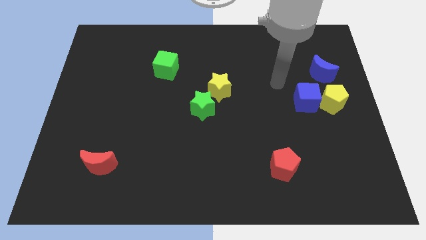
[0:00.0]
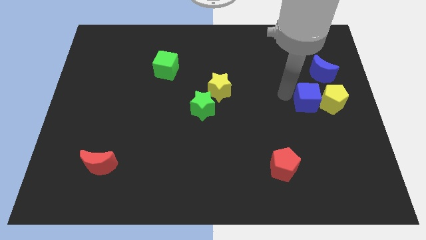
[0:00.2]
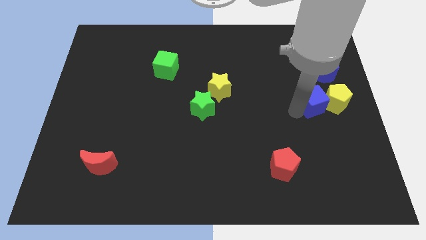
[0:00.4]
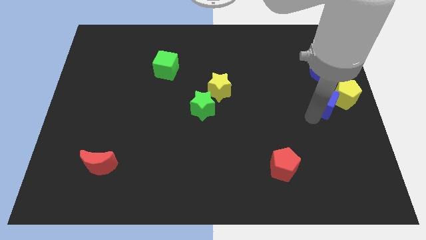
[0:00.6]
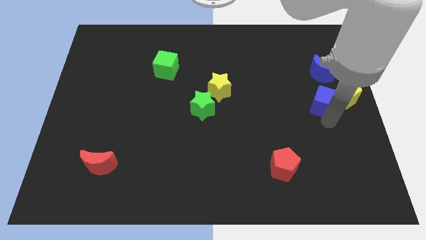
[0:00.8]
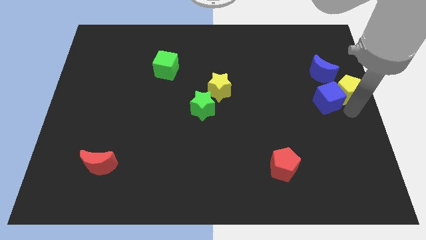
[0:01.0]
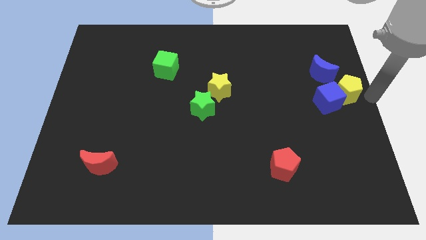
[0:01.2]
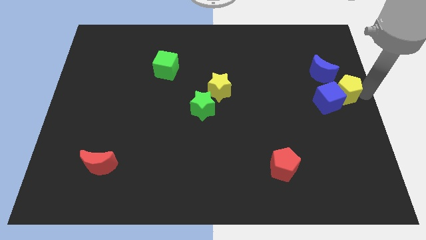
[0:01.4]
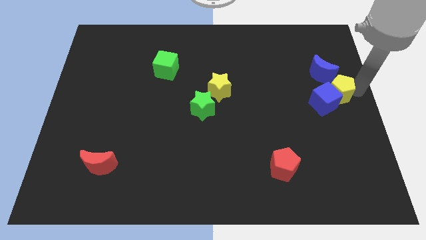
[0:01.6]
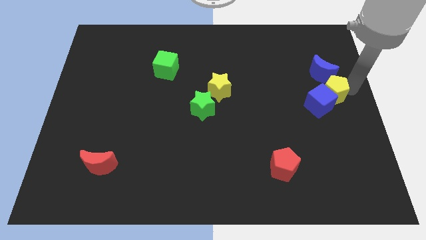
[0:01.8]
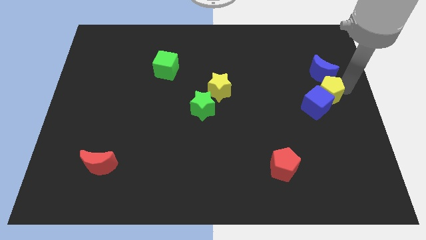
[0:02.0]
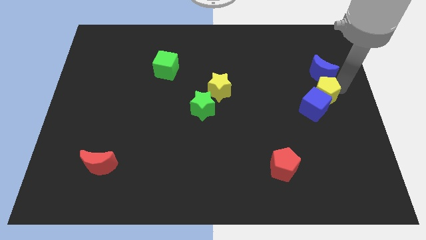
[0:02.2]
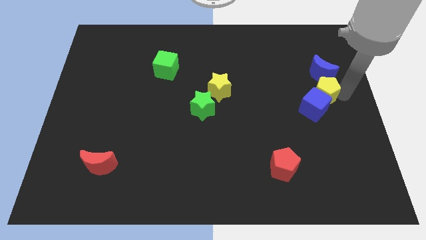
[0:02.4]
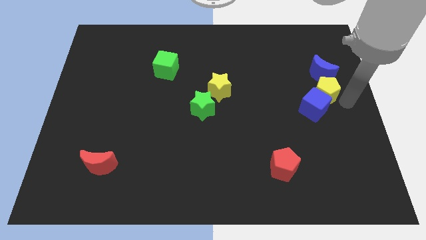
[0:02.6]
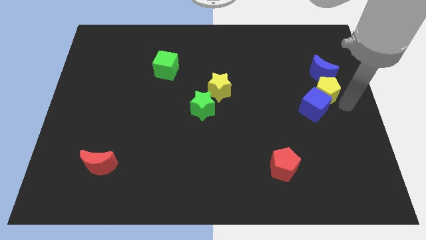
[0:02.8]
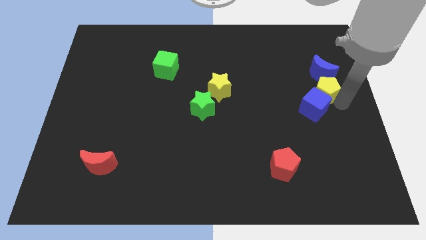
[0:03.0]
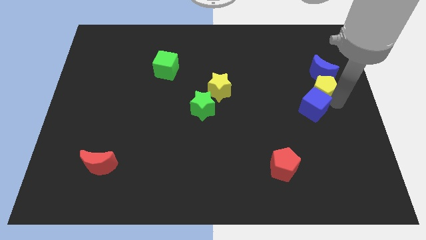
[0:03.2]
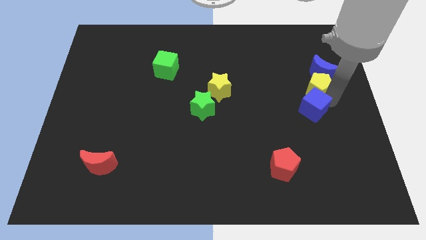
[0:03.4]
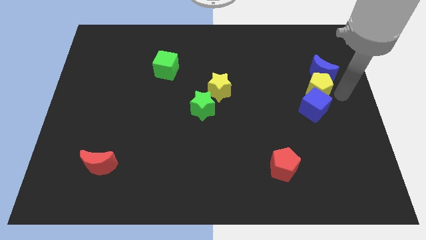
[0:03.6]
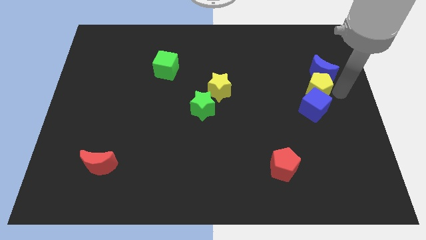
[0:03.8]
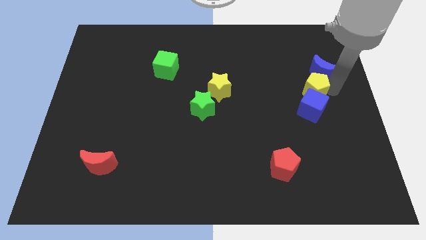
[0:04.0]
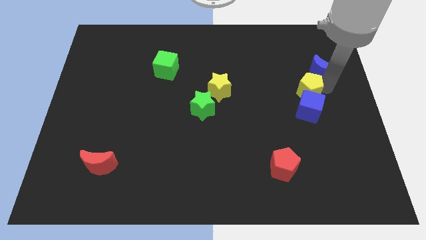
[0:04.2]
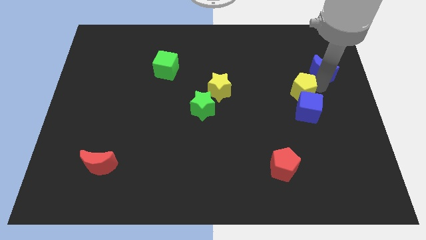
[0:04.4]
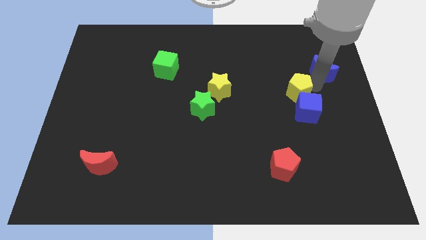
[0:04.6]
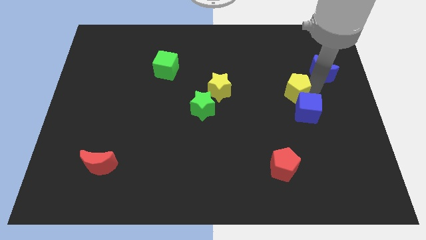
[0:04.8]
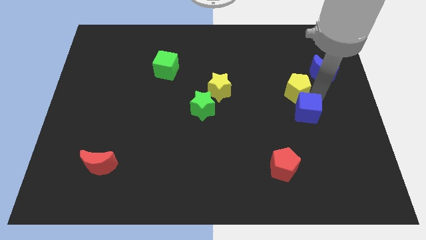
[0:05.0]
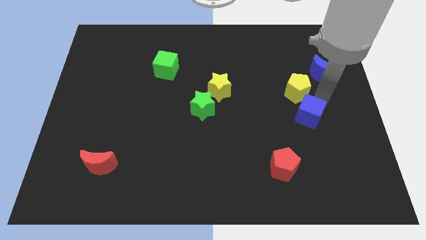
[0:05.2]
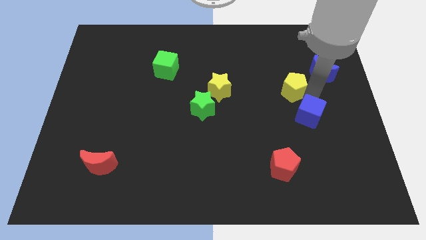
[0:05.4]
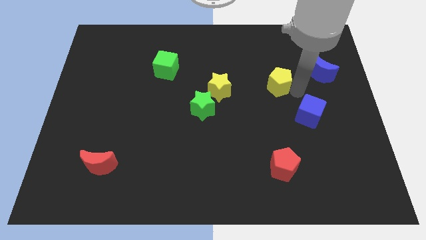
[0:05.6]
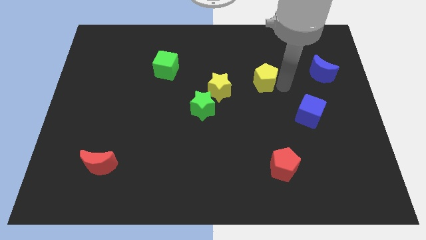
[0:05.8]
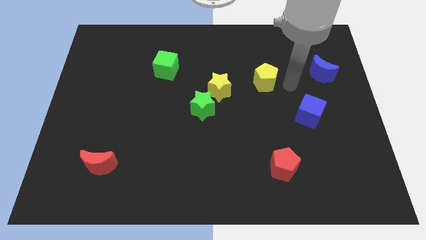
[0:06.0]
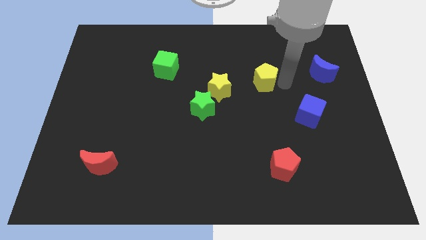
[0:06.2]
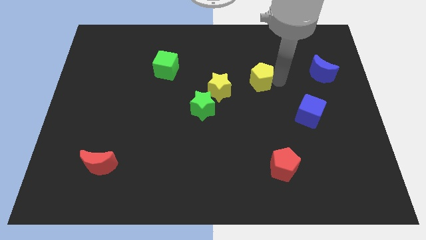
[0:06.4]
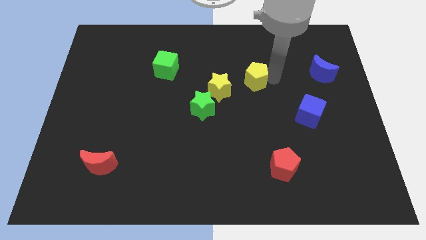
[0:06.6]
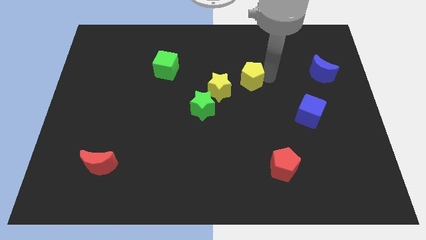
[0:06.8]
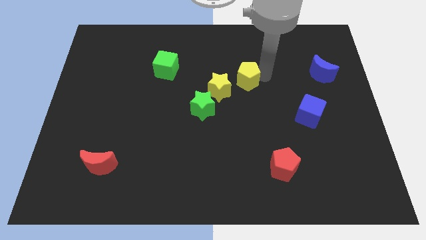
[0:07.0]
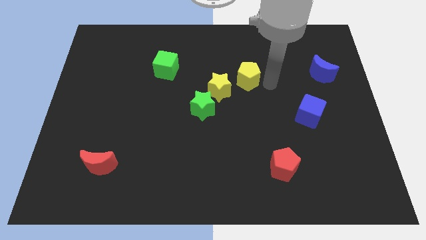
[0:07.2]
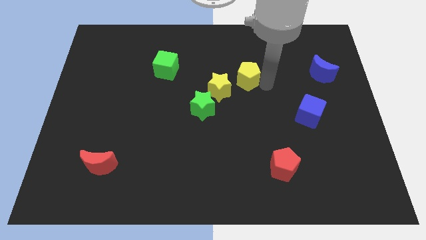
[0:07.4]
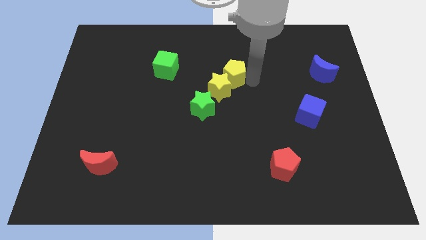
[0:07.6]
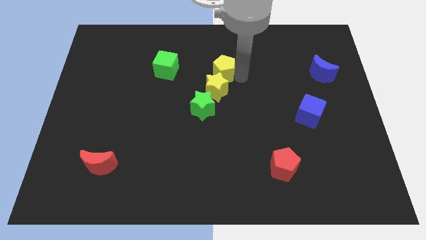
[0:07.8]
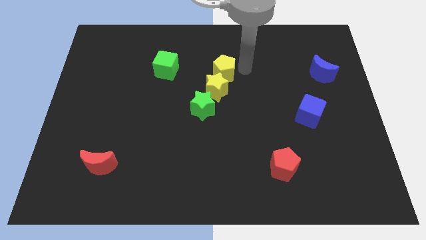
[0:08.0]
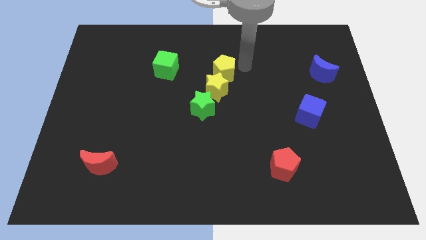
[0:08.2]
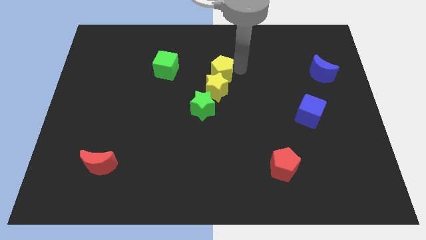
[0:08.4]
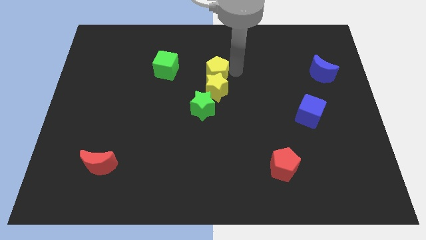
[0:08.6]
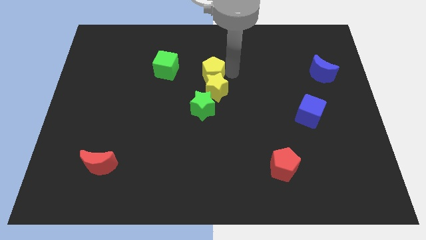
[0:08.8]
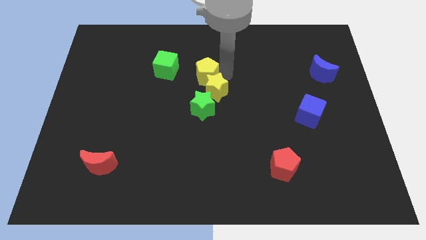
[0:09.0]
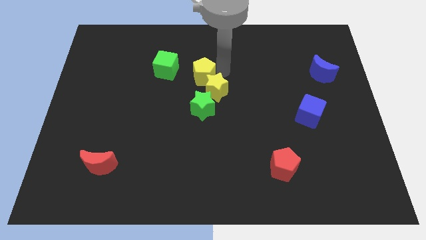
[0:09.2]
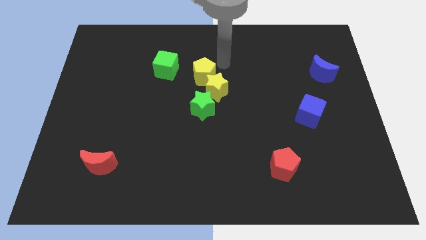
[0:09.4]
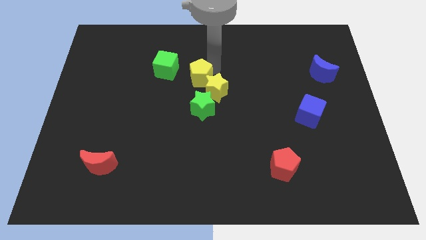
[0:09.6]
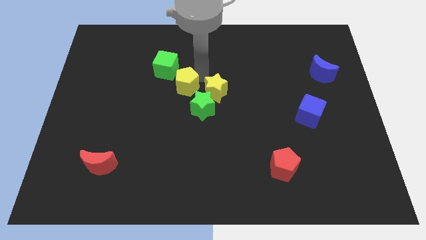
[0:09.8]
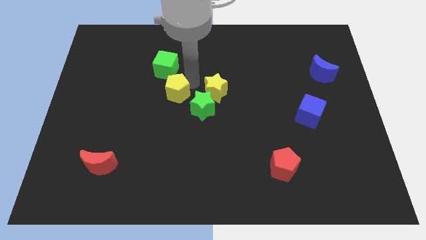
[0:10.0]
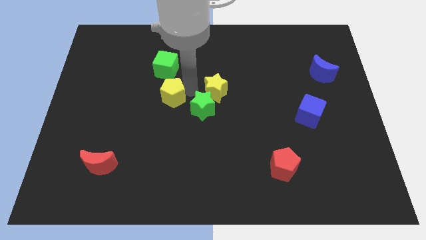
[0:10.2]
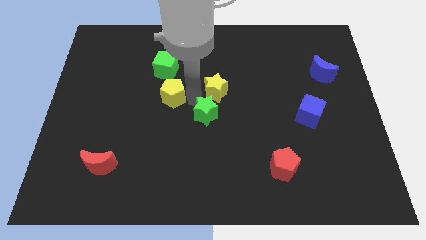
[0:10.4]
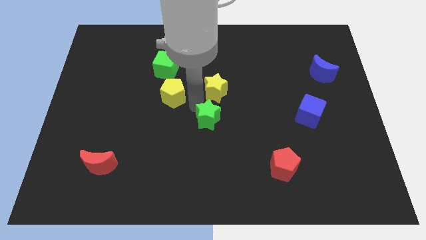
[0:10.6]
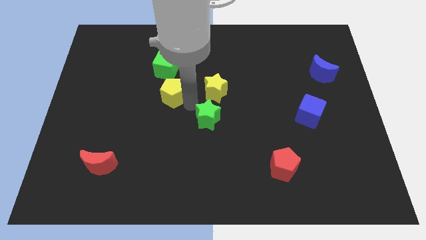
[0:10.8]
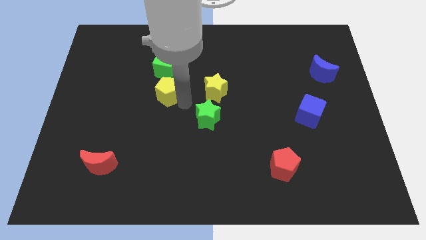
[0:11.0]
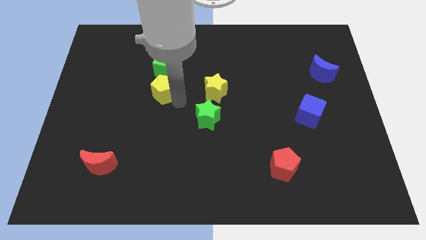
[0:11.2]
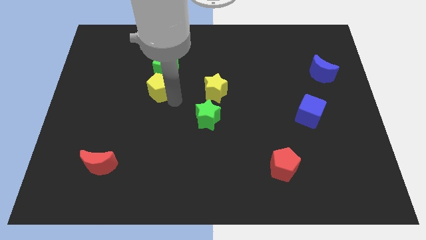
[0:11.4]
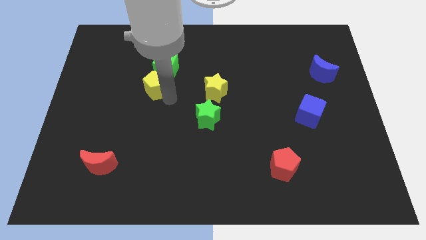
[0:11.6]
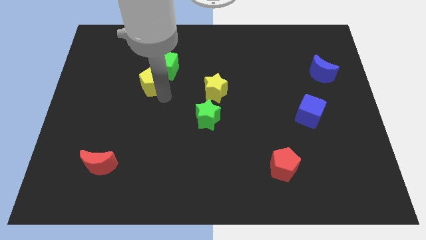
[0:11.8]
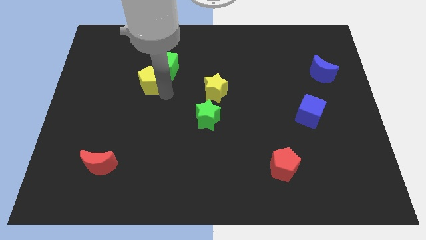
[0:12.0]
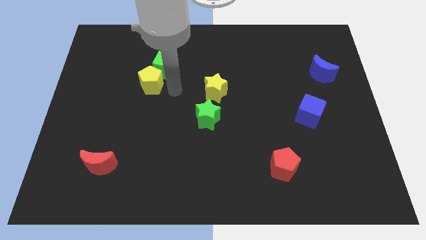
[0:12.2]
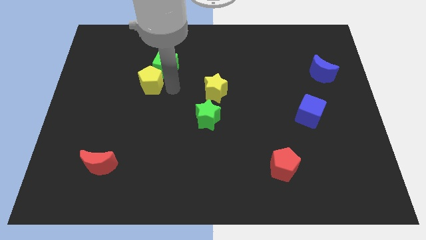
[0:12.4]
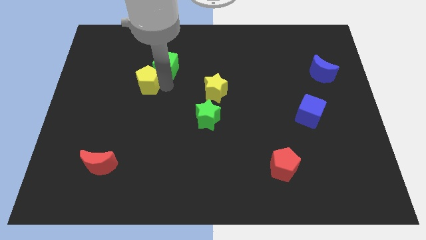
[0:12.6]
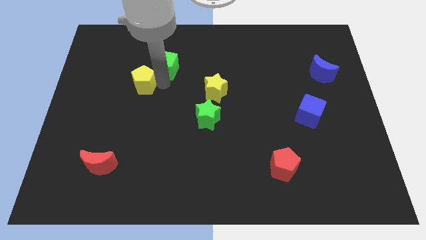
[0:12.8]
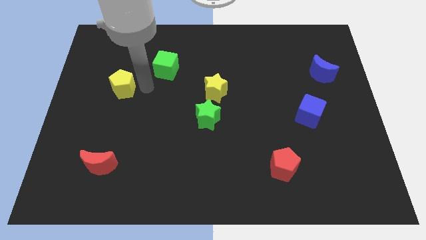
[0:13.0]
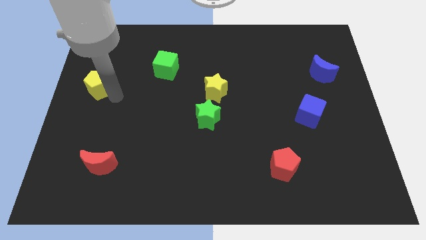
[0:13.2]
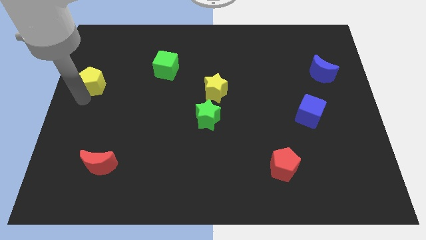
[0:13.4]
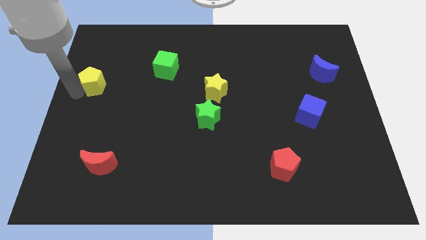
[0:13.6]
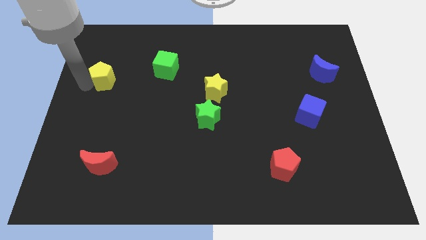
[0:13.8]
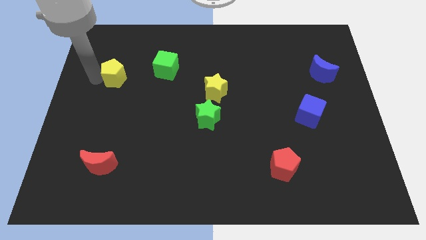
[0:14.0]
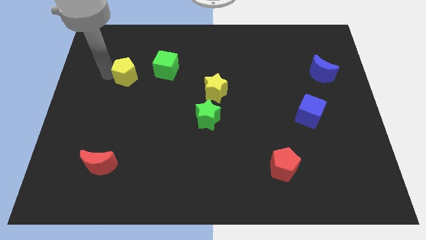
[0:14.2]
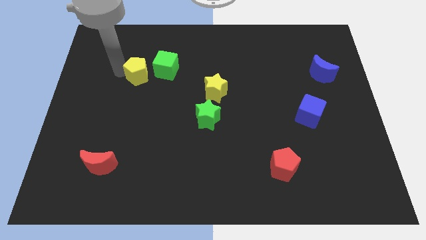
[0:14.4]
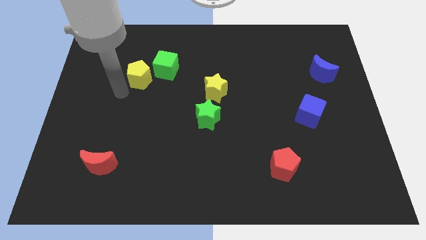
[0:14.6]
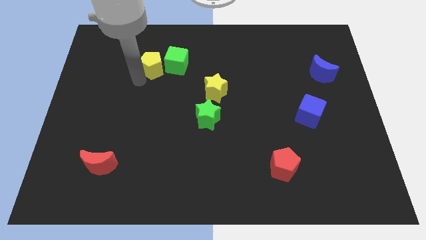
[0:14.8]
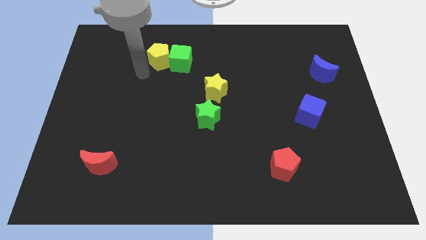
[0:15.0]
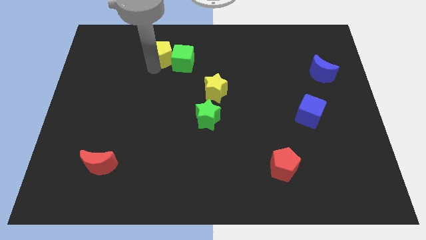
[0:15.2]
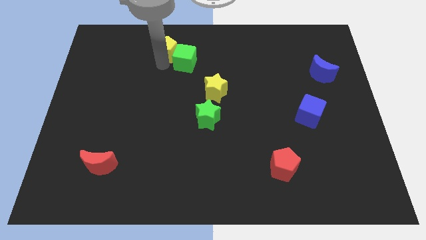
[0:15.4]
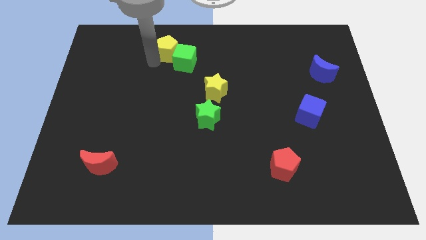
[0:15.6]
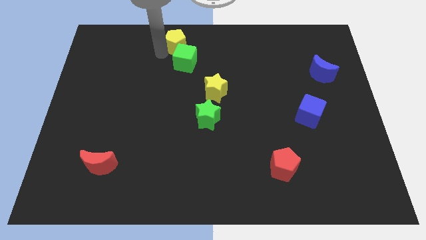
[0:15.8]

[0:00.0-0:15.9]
put the yellow pentagon to the top side

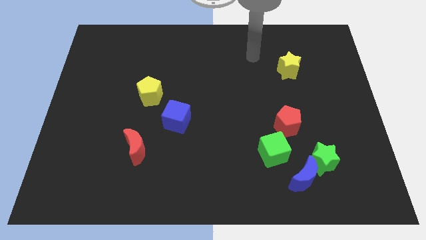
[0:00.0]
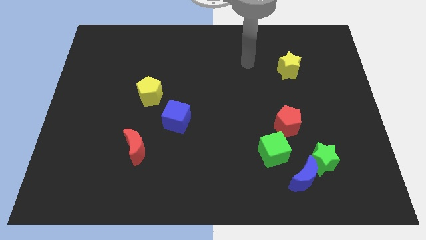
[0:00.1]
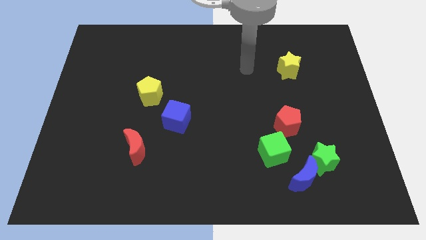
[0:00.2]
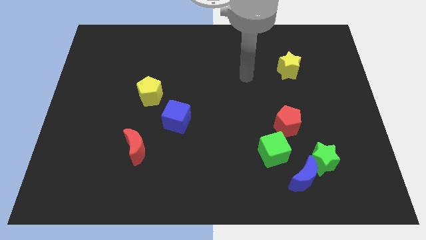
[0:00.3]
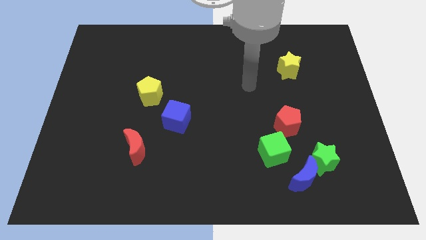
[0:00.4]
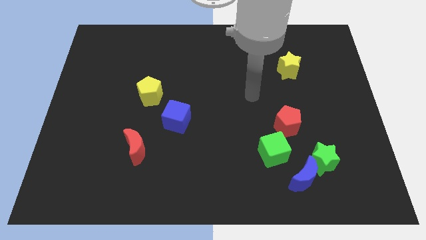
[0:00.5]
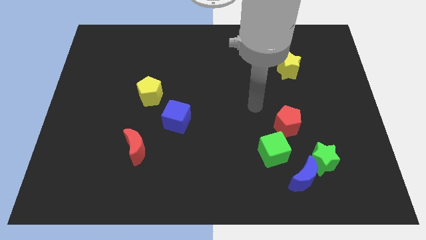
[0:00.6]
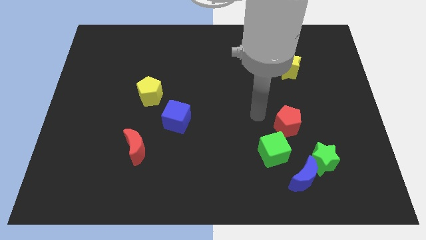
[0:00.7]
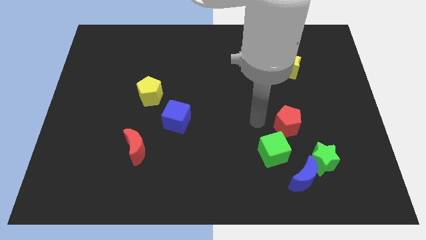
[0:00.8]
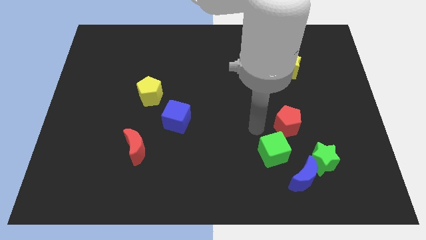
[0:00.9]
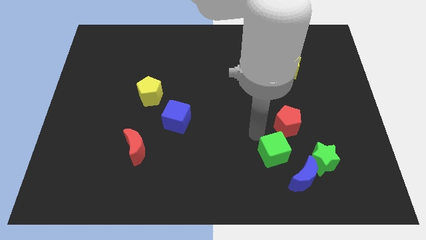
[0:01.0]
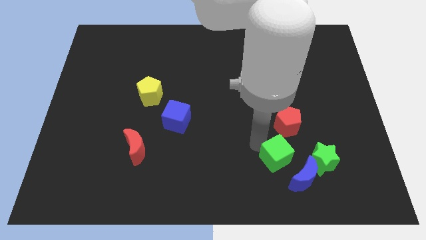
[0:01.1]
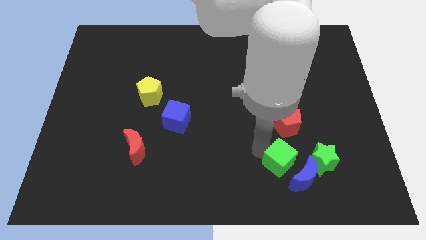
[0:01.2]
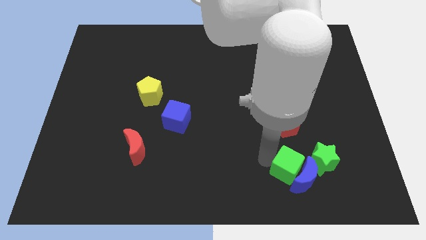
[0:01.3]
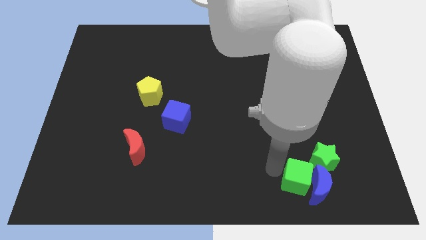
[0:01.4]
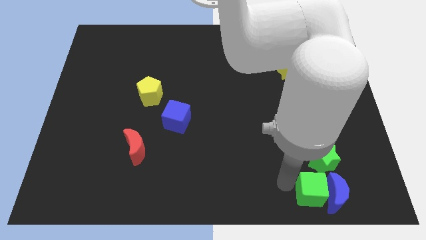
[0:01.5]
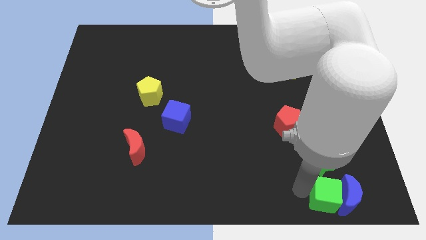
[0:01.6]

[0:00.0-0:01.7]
slide the blue moon to the bottom right of the board
